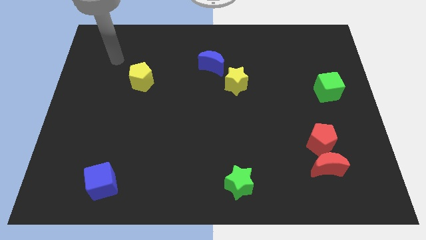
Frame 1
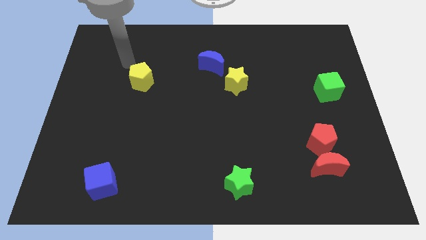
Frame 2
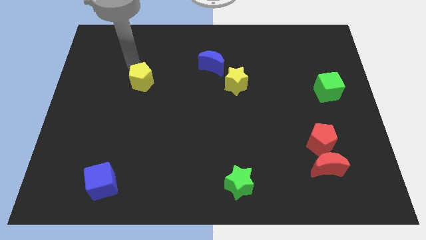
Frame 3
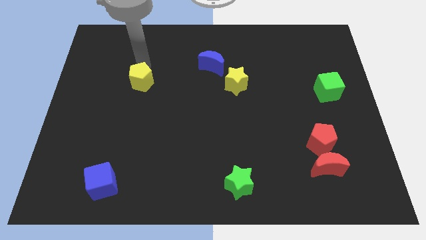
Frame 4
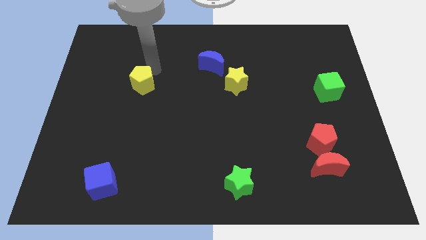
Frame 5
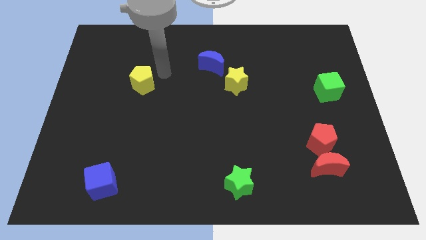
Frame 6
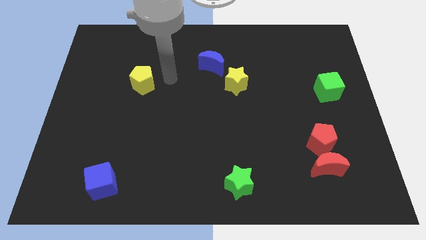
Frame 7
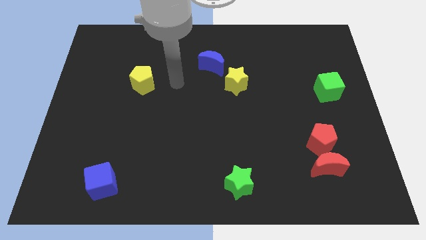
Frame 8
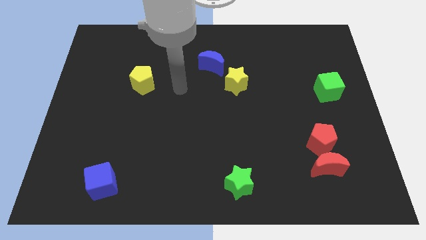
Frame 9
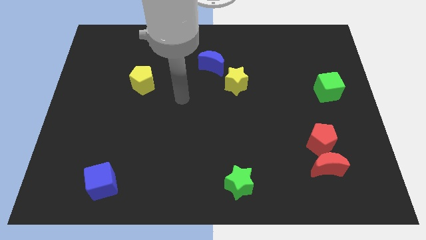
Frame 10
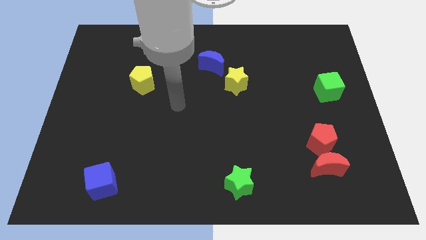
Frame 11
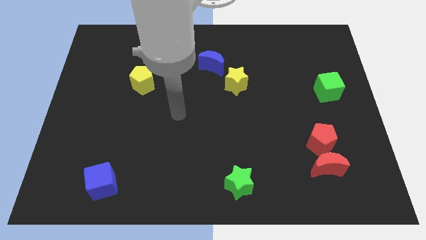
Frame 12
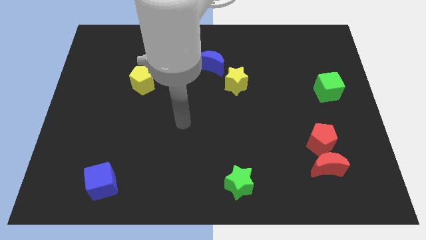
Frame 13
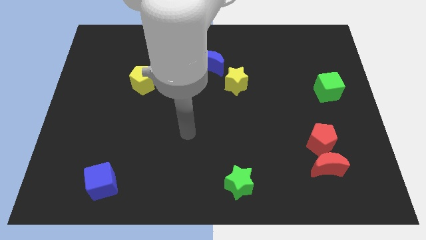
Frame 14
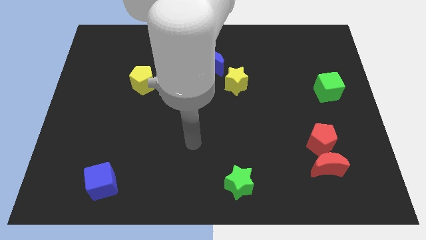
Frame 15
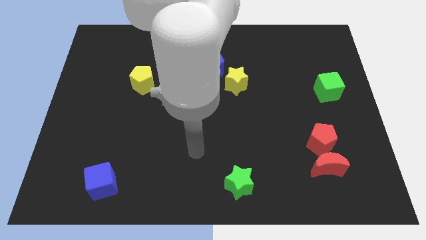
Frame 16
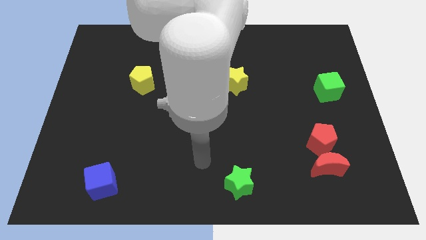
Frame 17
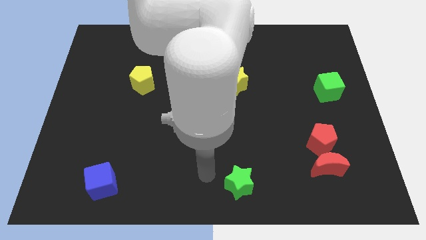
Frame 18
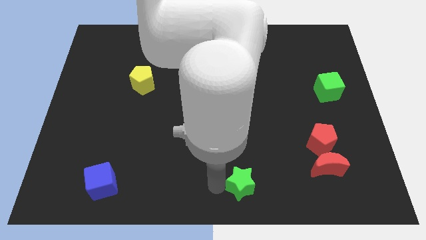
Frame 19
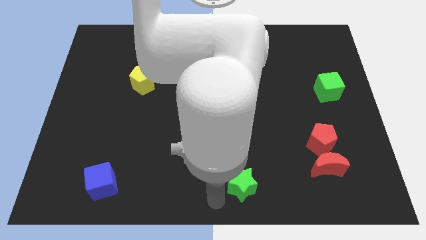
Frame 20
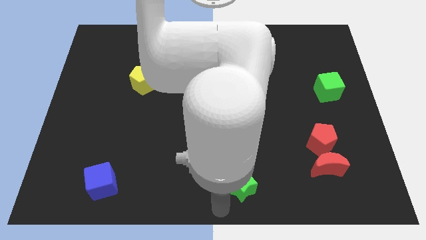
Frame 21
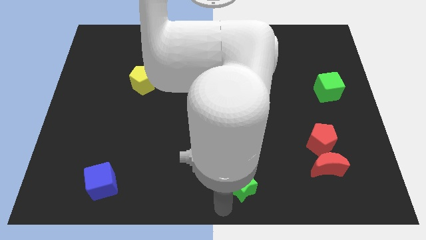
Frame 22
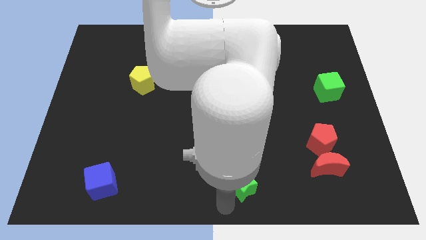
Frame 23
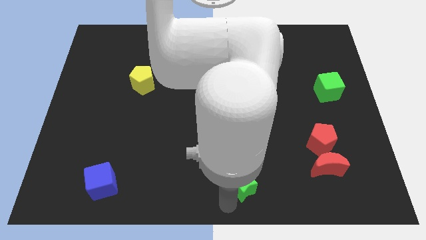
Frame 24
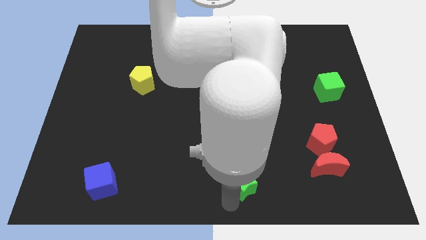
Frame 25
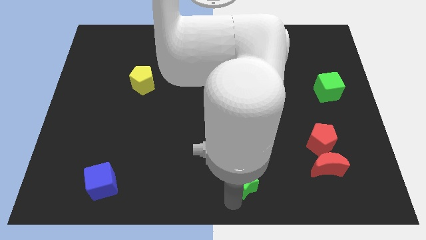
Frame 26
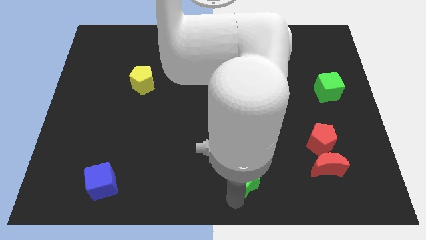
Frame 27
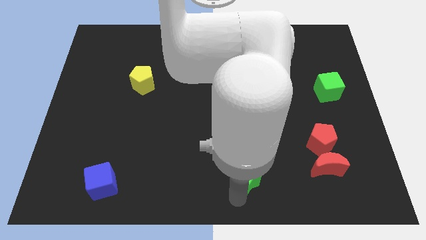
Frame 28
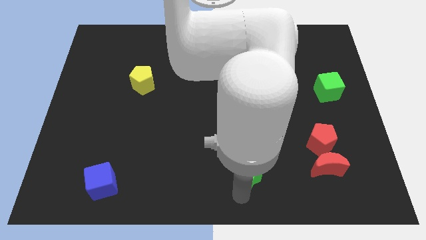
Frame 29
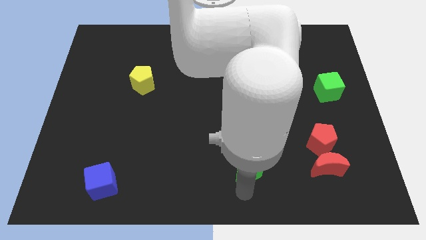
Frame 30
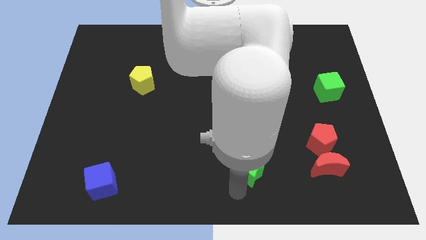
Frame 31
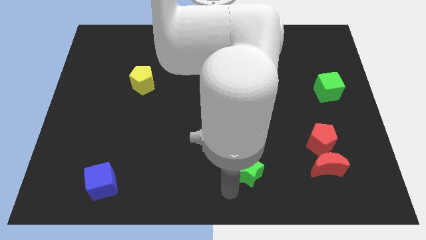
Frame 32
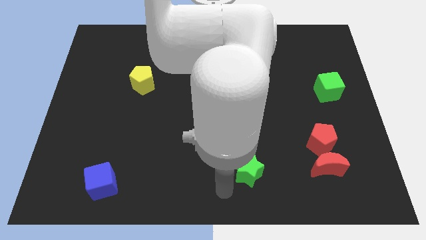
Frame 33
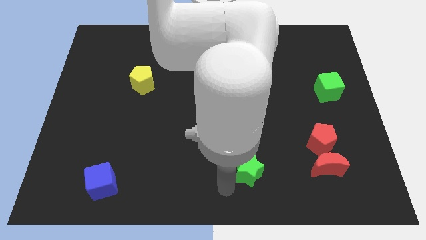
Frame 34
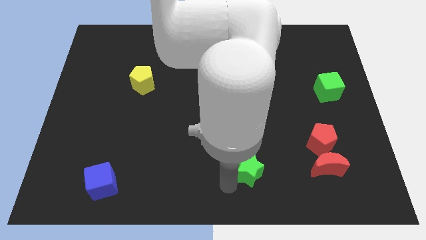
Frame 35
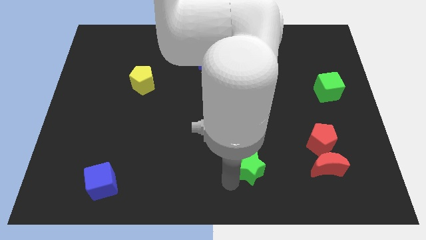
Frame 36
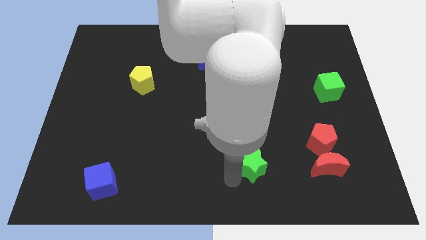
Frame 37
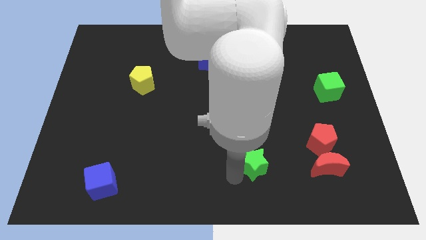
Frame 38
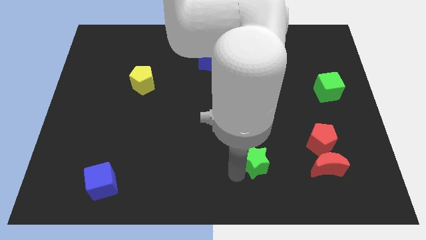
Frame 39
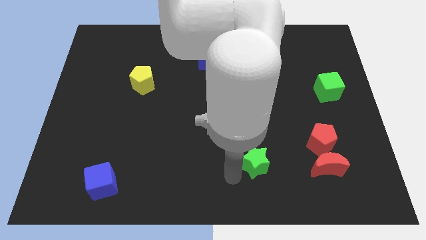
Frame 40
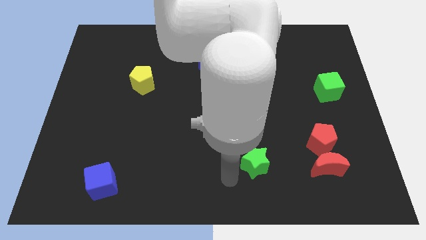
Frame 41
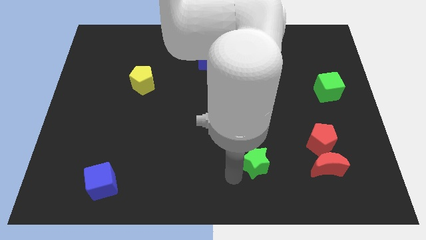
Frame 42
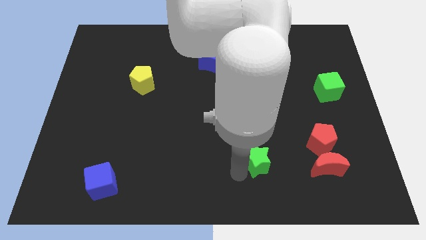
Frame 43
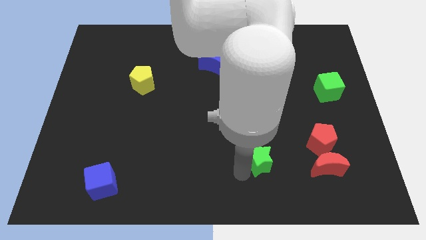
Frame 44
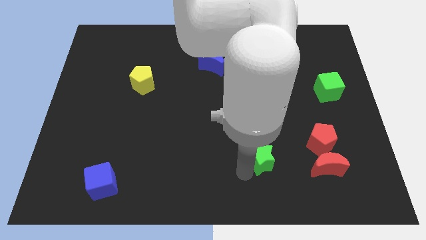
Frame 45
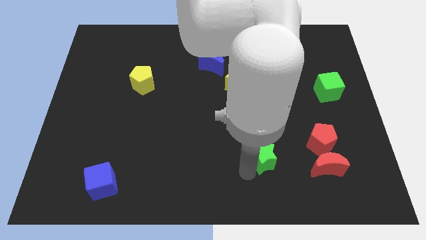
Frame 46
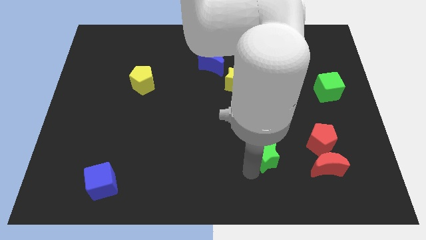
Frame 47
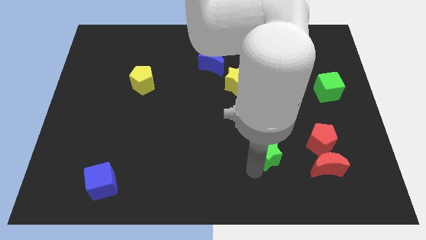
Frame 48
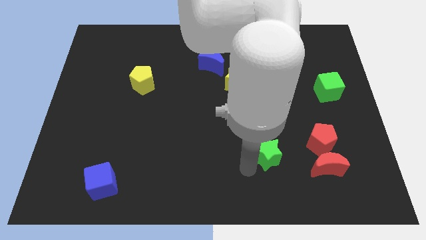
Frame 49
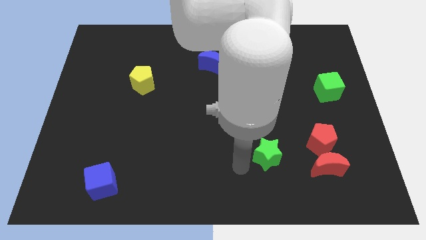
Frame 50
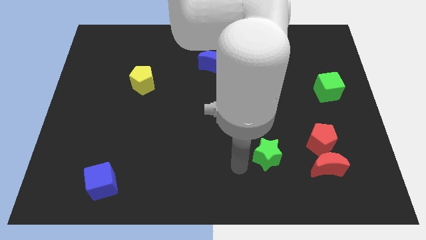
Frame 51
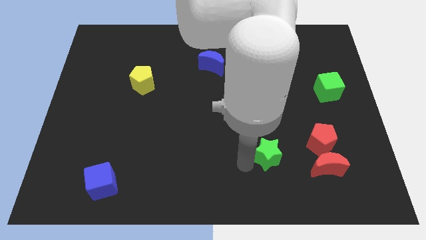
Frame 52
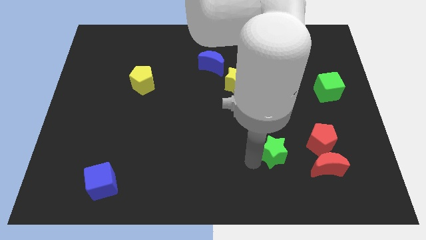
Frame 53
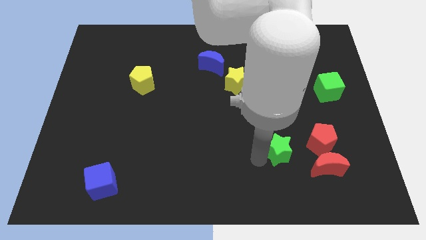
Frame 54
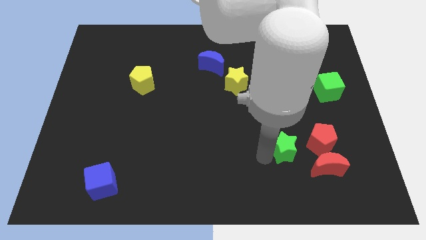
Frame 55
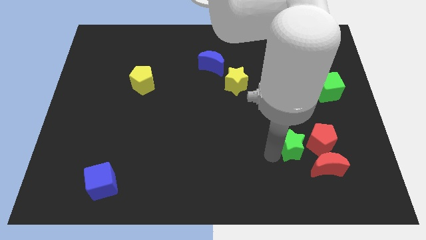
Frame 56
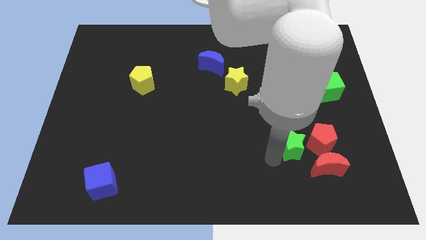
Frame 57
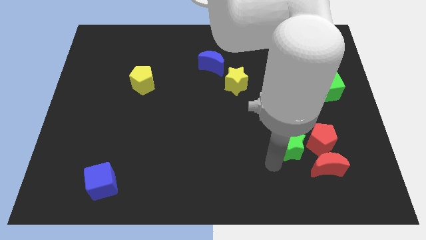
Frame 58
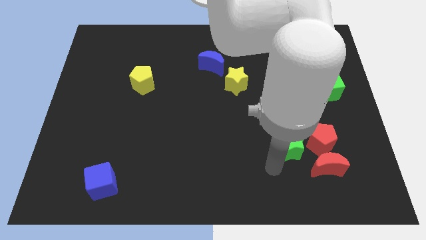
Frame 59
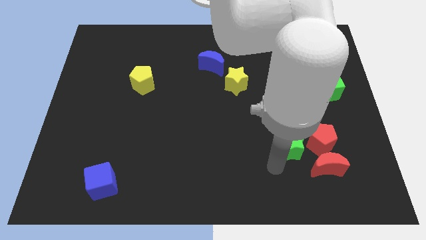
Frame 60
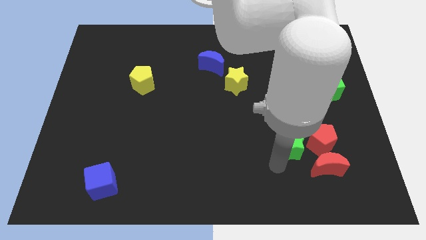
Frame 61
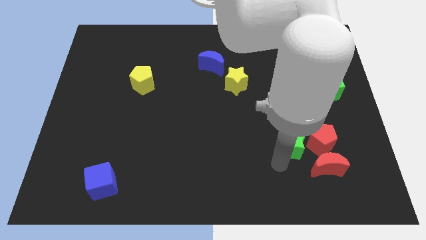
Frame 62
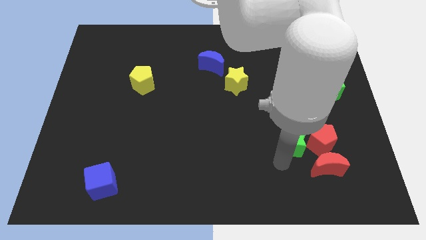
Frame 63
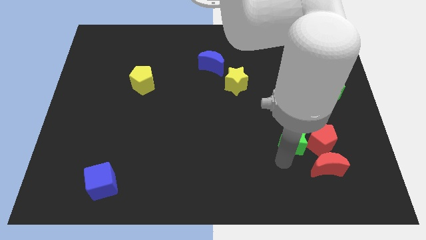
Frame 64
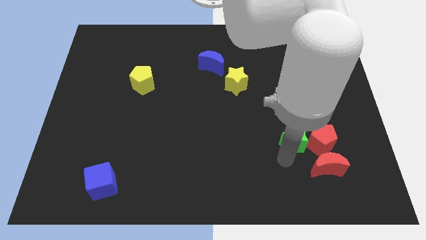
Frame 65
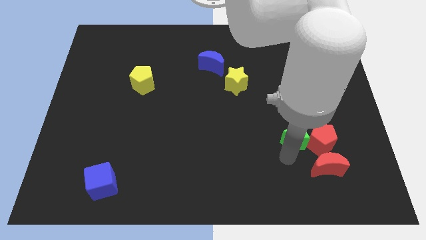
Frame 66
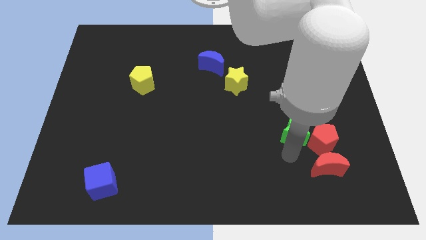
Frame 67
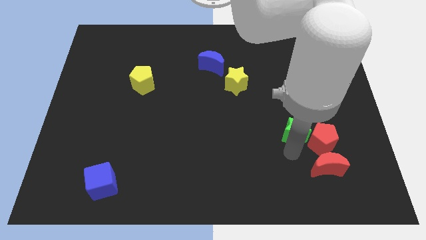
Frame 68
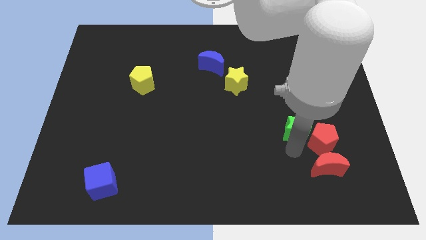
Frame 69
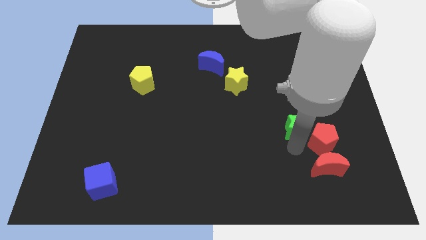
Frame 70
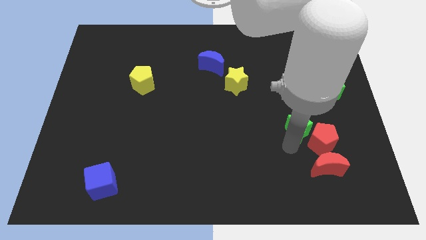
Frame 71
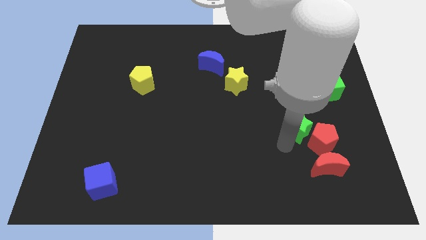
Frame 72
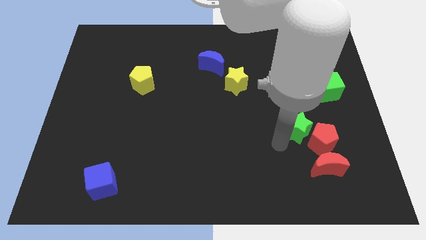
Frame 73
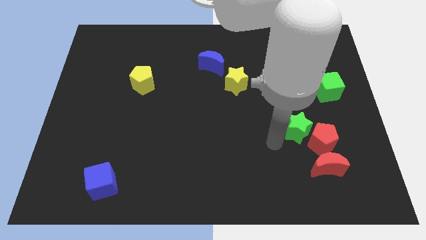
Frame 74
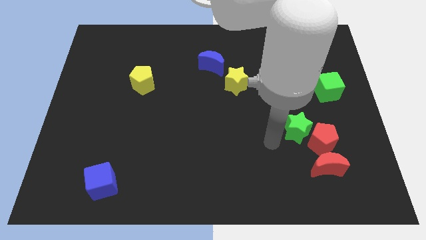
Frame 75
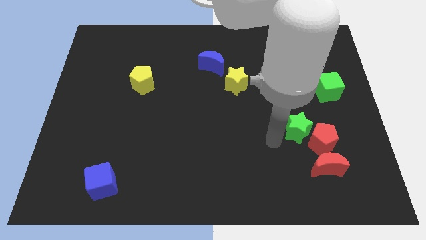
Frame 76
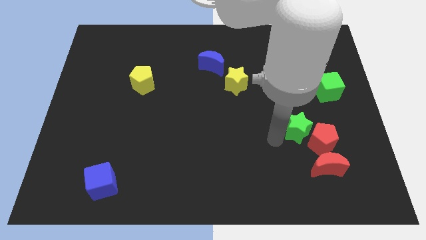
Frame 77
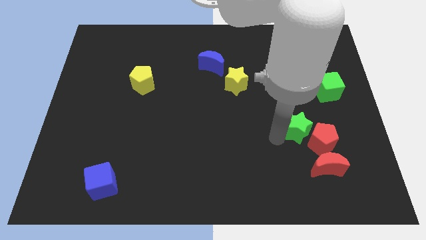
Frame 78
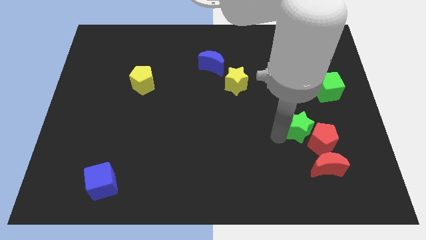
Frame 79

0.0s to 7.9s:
slide the green star above the red pentagon
